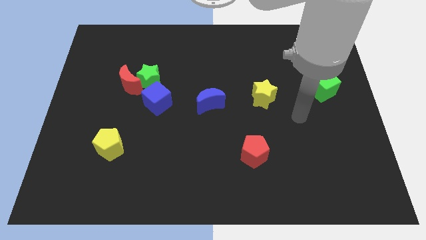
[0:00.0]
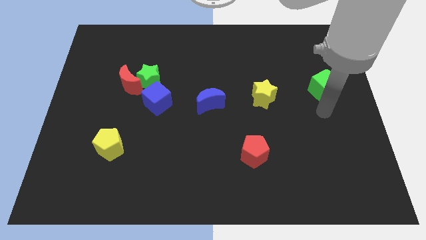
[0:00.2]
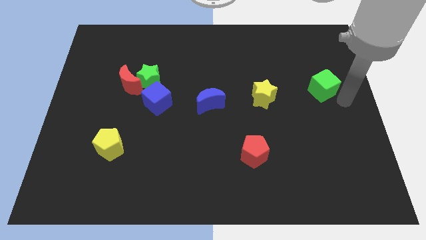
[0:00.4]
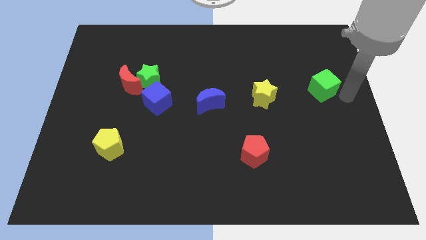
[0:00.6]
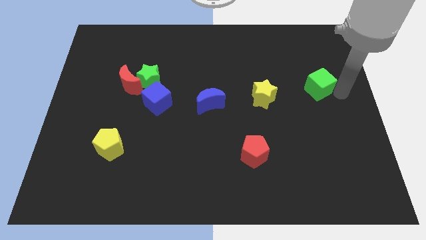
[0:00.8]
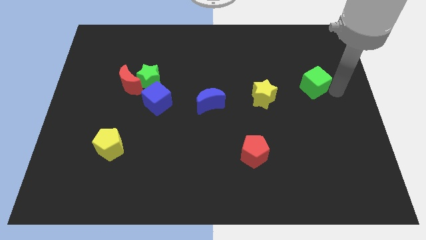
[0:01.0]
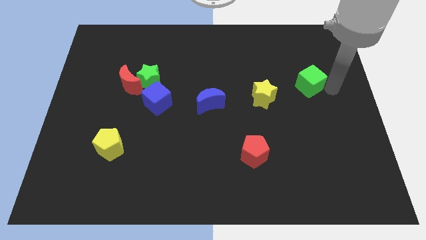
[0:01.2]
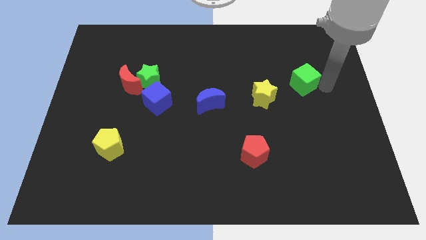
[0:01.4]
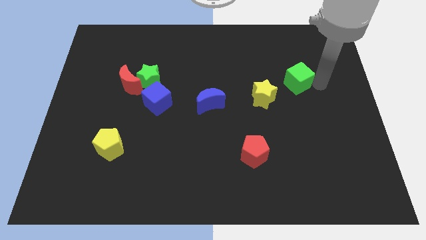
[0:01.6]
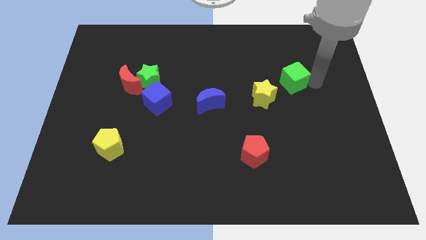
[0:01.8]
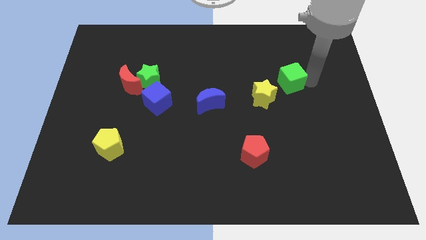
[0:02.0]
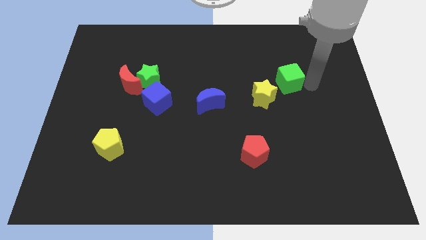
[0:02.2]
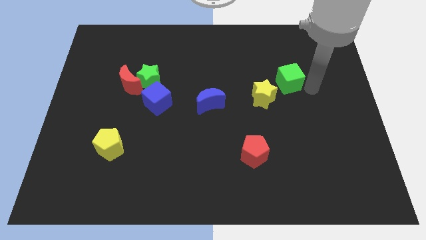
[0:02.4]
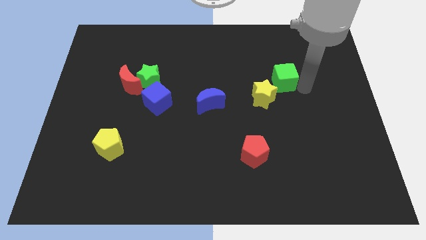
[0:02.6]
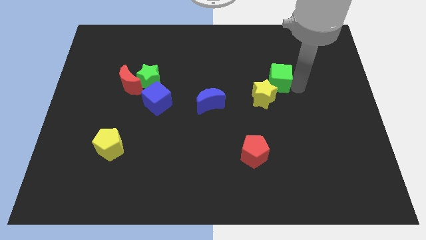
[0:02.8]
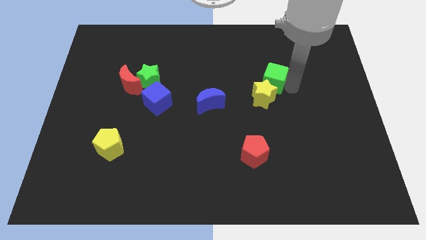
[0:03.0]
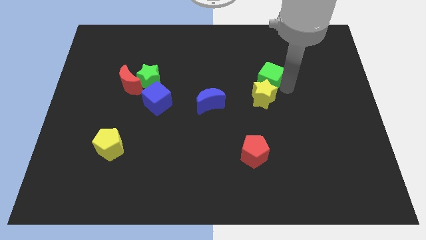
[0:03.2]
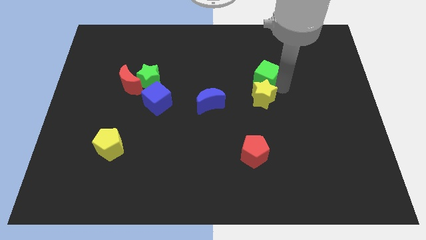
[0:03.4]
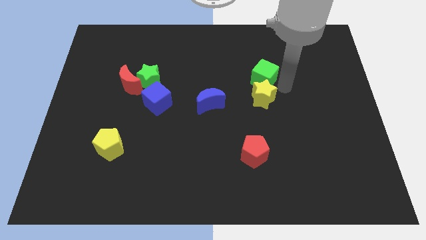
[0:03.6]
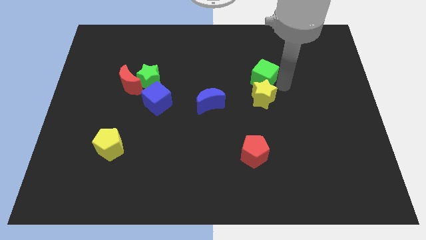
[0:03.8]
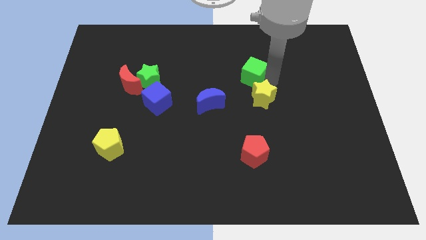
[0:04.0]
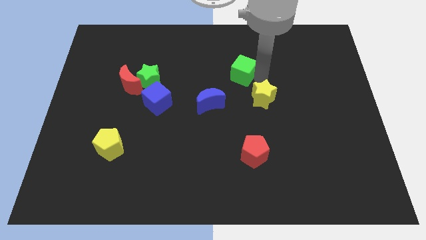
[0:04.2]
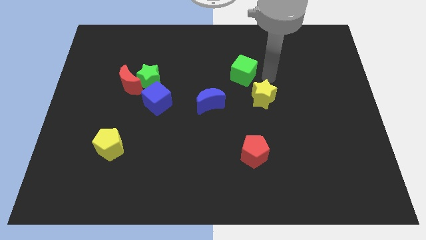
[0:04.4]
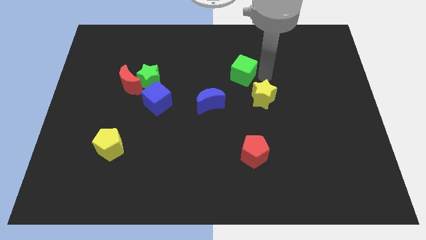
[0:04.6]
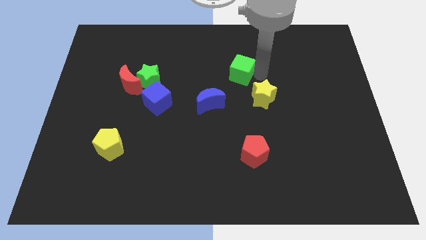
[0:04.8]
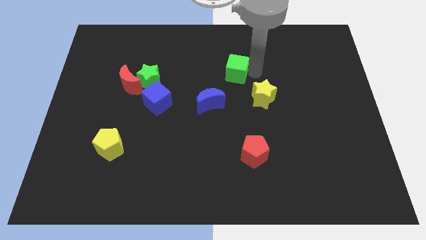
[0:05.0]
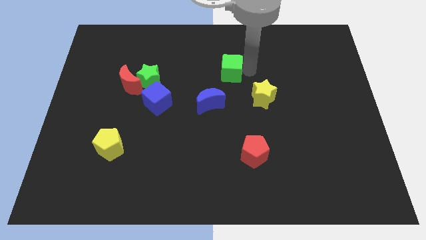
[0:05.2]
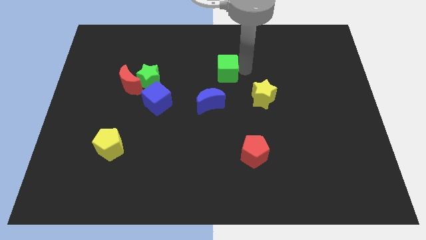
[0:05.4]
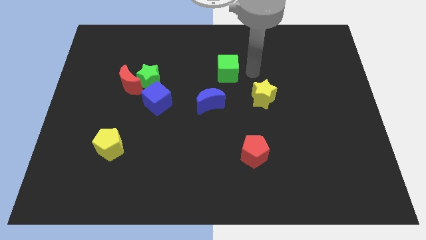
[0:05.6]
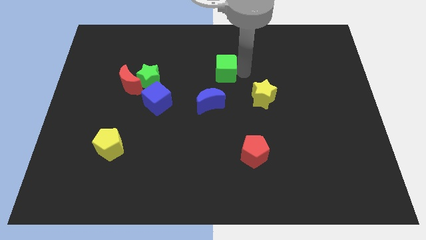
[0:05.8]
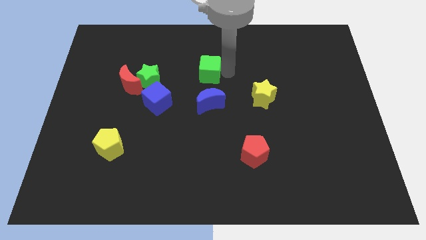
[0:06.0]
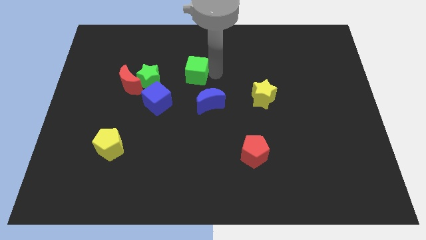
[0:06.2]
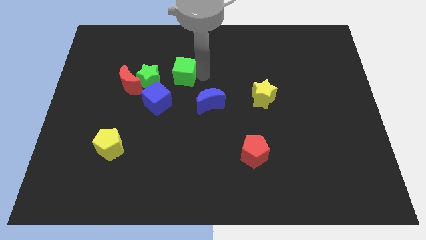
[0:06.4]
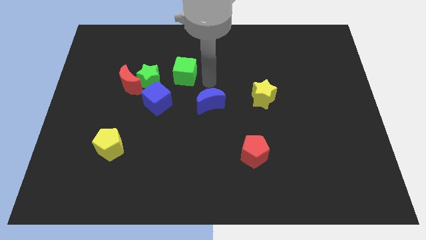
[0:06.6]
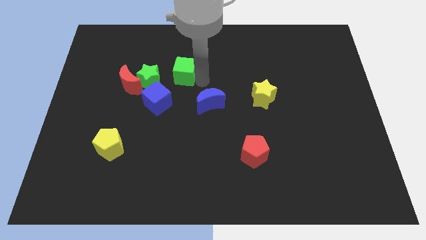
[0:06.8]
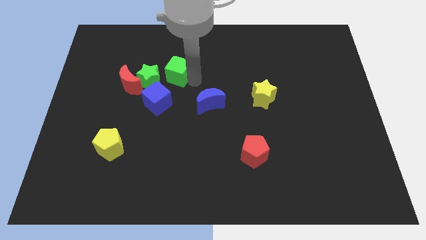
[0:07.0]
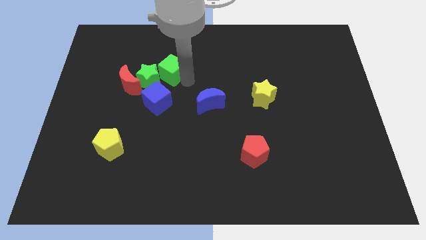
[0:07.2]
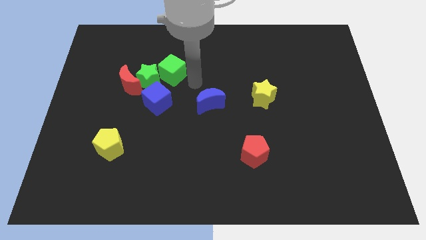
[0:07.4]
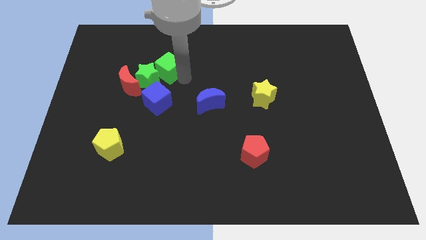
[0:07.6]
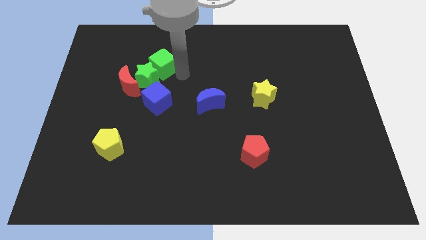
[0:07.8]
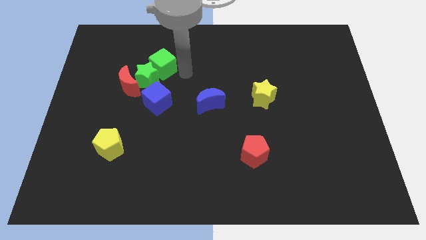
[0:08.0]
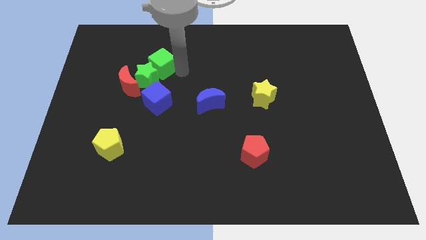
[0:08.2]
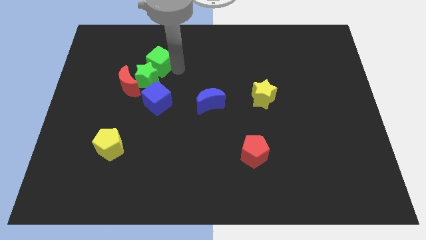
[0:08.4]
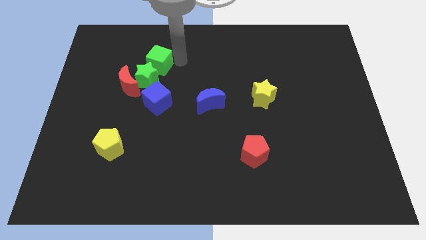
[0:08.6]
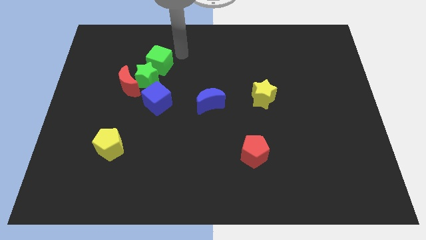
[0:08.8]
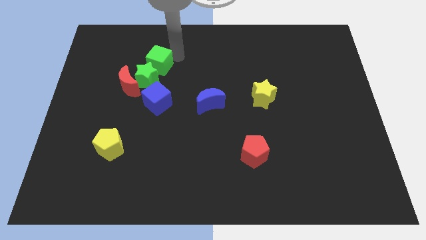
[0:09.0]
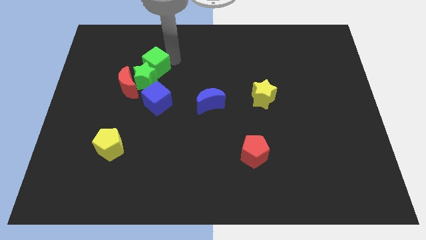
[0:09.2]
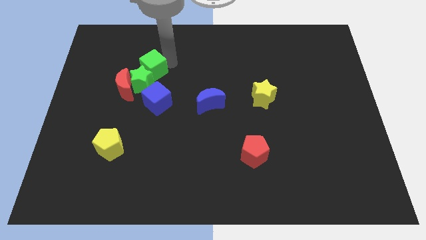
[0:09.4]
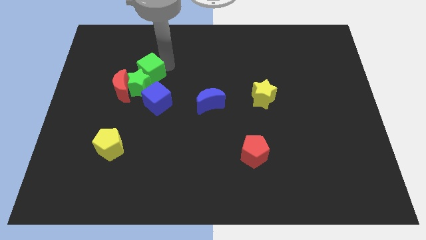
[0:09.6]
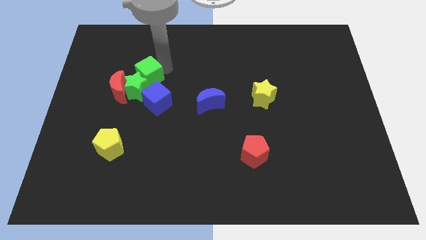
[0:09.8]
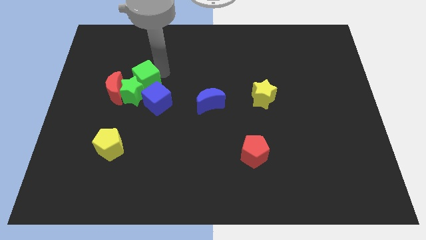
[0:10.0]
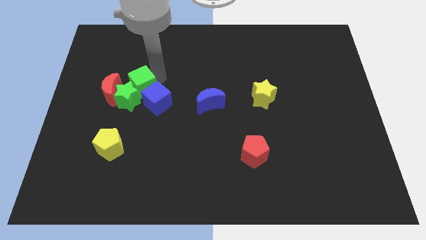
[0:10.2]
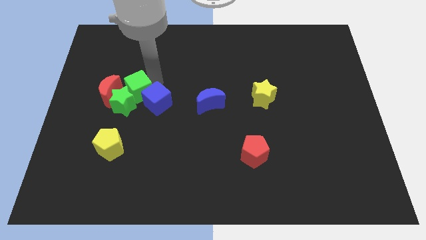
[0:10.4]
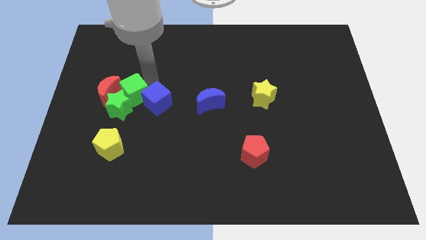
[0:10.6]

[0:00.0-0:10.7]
move the green cube to the red moon

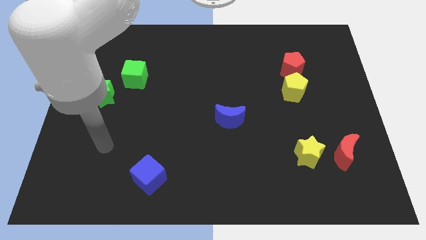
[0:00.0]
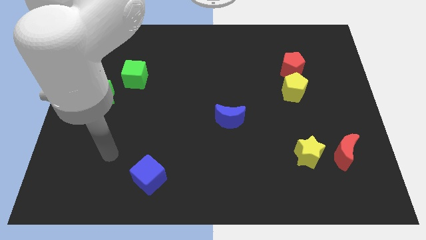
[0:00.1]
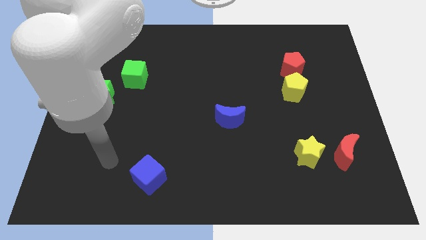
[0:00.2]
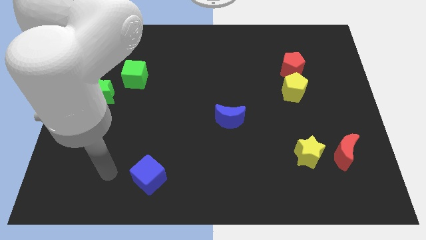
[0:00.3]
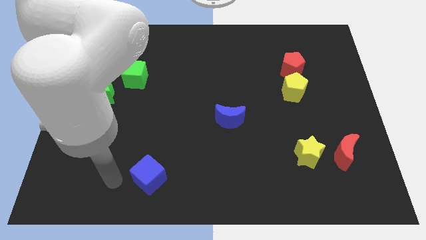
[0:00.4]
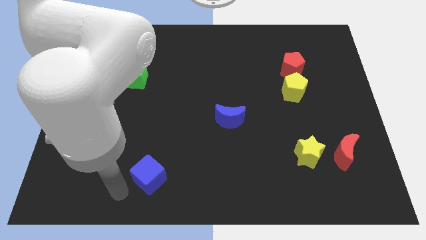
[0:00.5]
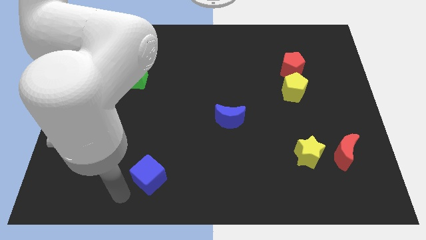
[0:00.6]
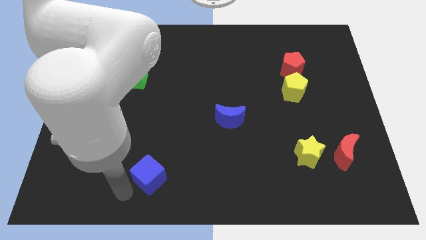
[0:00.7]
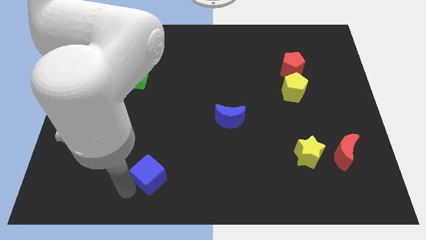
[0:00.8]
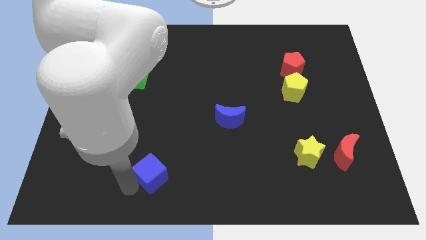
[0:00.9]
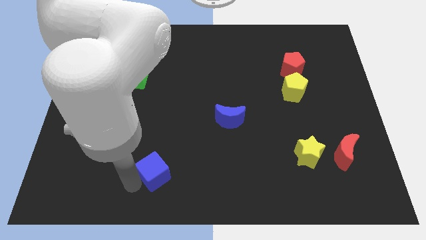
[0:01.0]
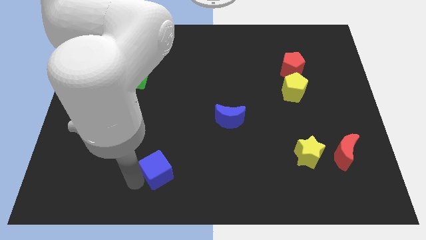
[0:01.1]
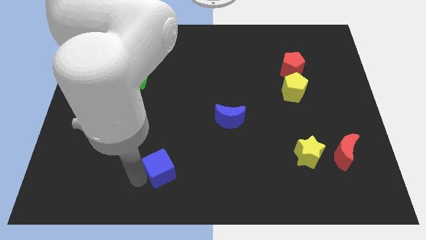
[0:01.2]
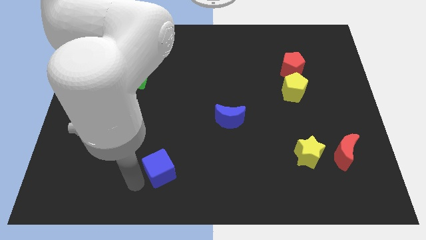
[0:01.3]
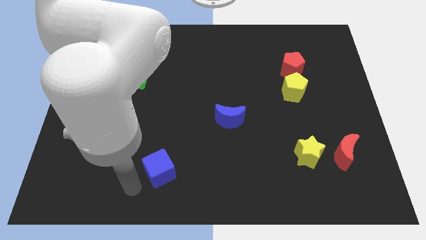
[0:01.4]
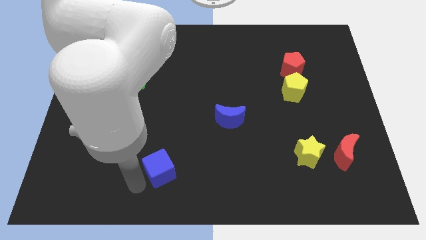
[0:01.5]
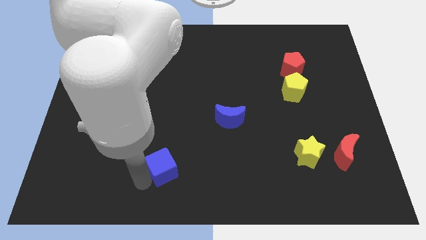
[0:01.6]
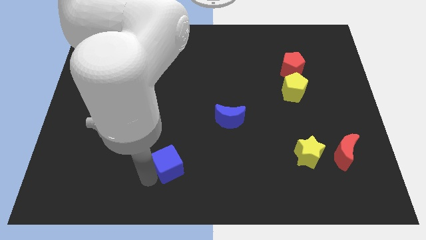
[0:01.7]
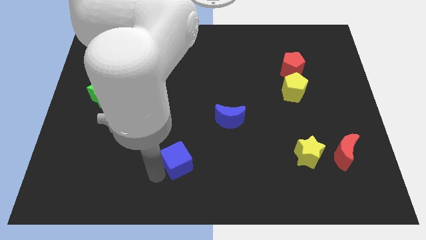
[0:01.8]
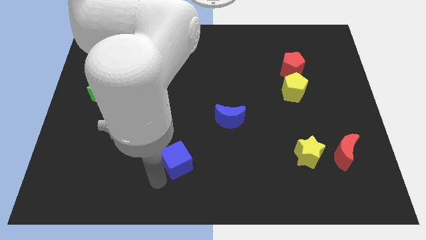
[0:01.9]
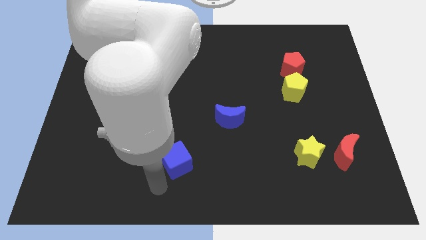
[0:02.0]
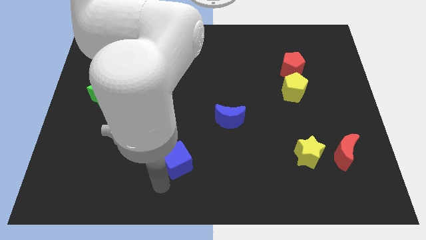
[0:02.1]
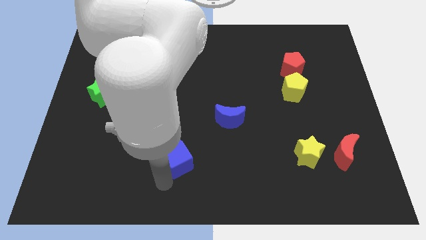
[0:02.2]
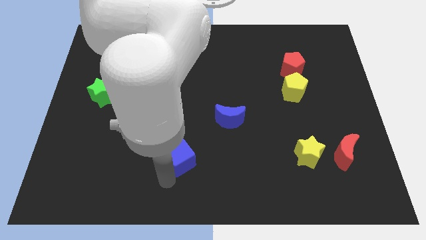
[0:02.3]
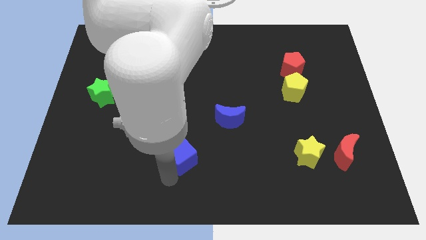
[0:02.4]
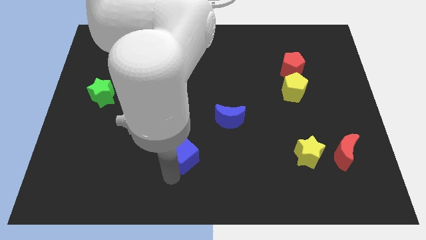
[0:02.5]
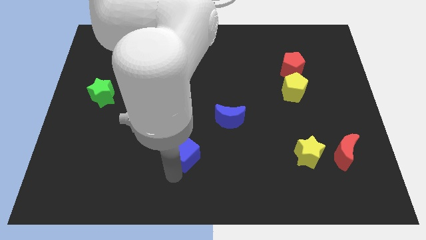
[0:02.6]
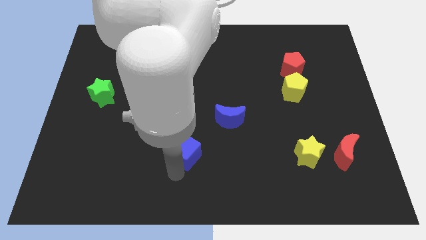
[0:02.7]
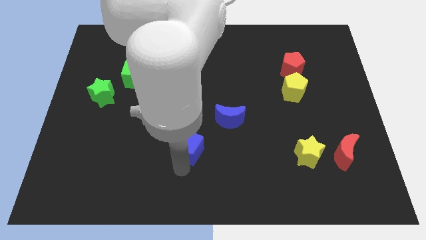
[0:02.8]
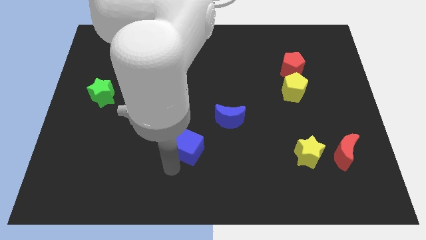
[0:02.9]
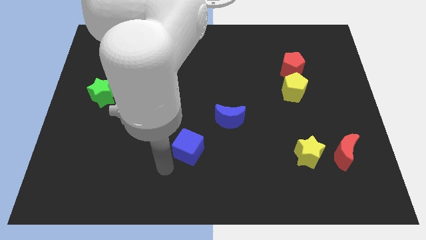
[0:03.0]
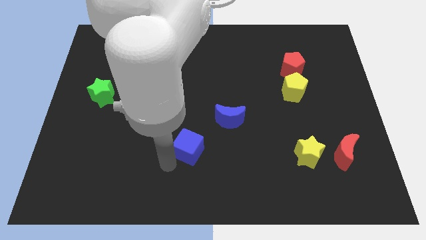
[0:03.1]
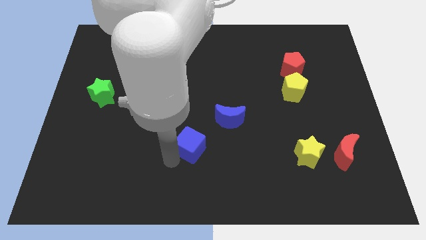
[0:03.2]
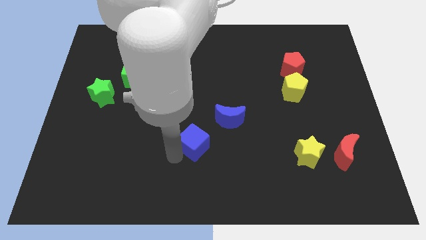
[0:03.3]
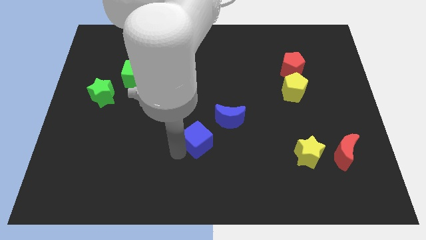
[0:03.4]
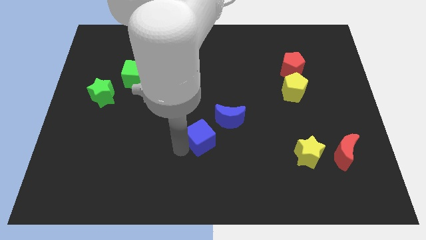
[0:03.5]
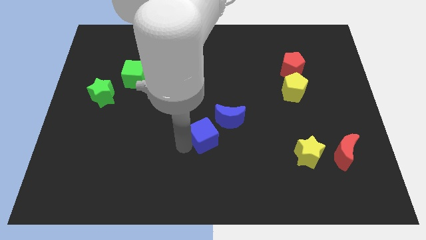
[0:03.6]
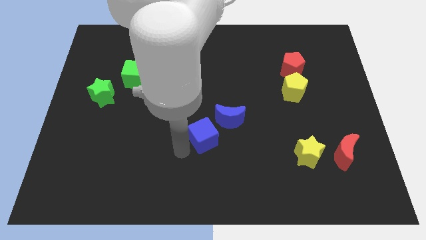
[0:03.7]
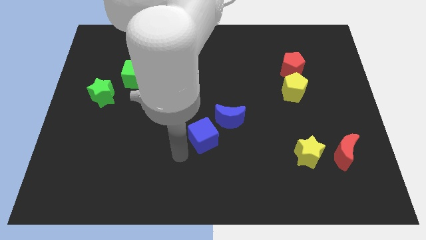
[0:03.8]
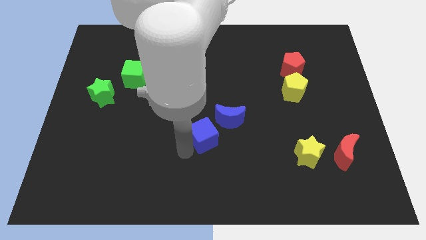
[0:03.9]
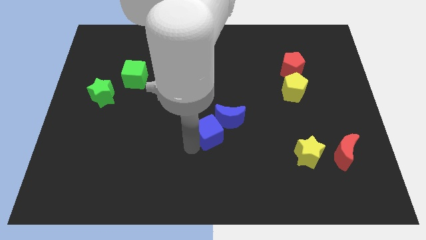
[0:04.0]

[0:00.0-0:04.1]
slide the blue cube close to the blue moon
